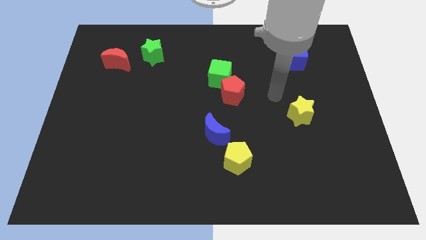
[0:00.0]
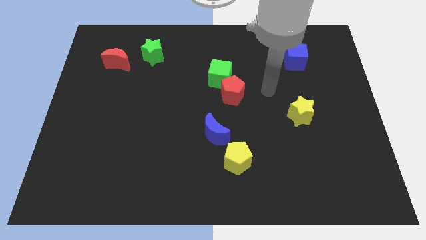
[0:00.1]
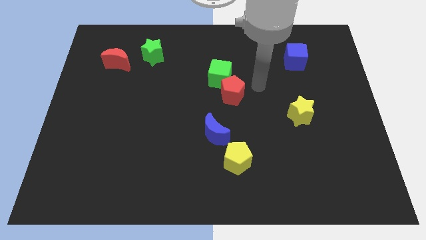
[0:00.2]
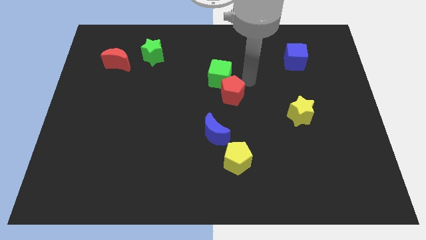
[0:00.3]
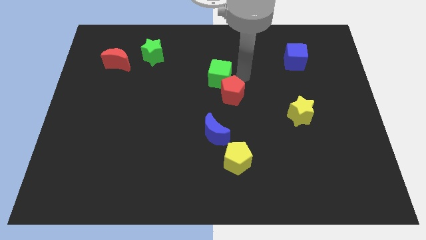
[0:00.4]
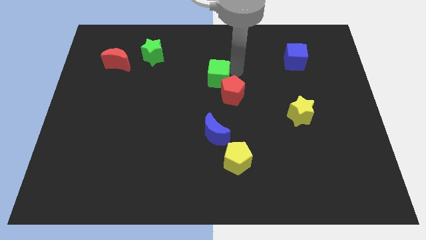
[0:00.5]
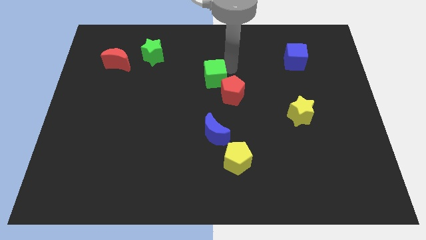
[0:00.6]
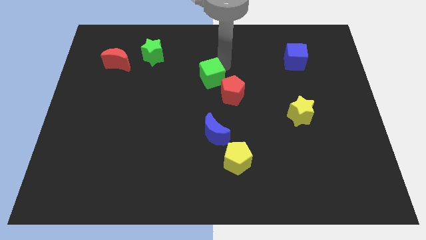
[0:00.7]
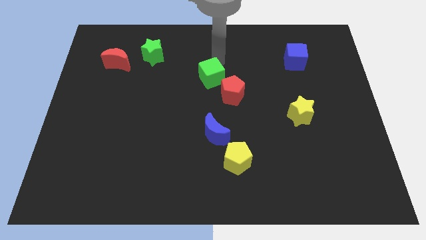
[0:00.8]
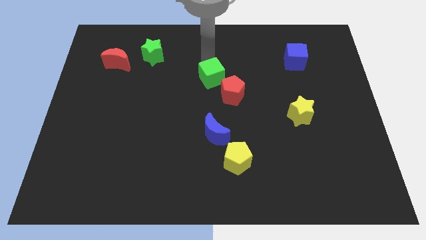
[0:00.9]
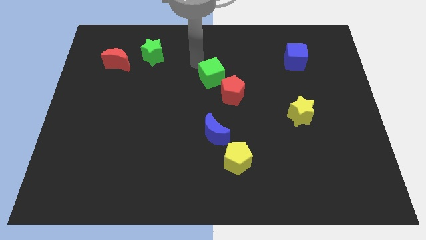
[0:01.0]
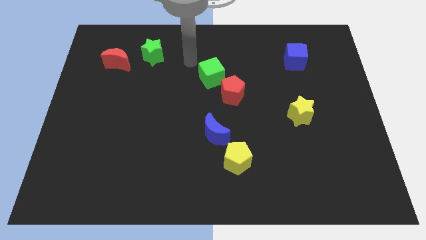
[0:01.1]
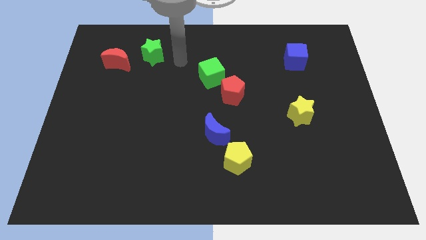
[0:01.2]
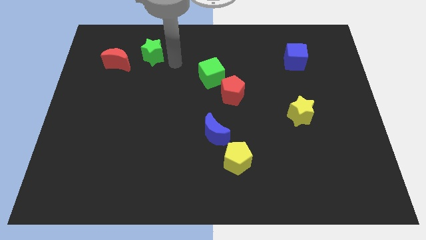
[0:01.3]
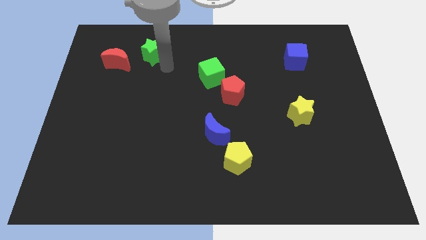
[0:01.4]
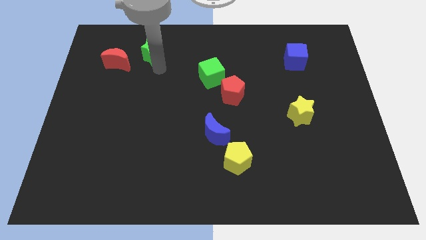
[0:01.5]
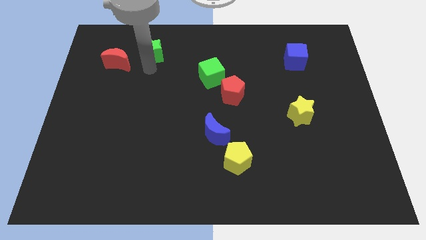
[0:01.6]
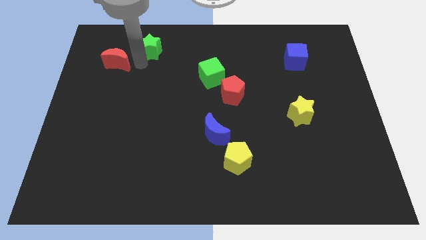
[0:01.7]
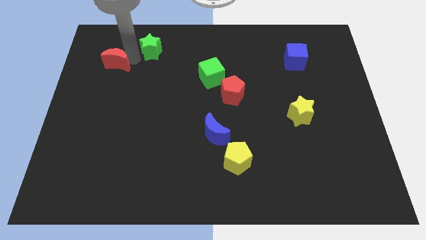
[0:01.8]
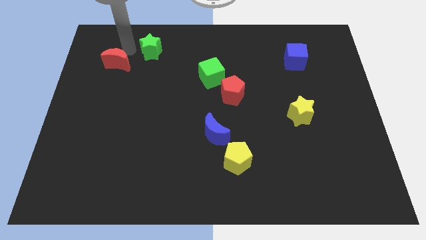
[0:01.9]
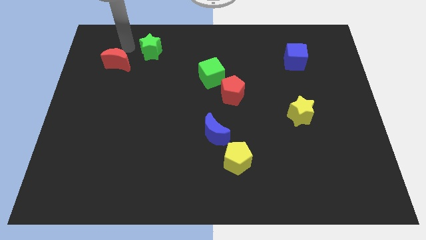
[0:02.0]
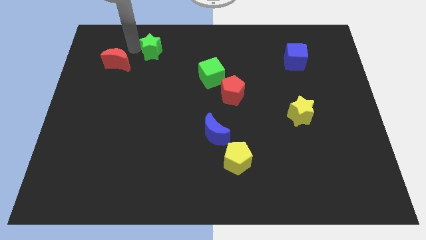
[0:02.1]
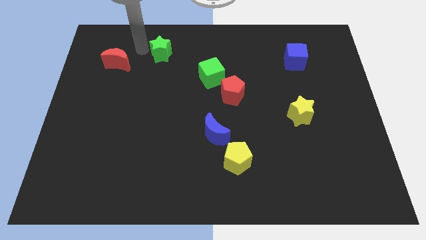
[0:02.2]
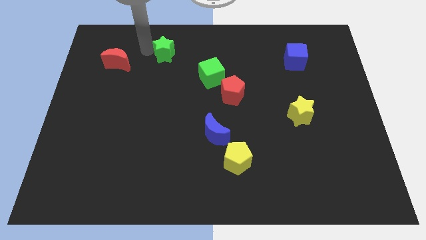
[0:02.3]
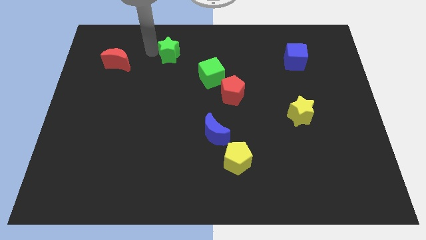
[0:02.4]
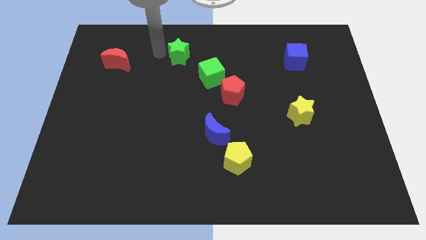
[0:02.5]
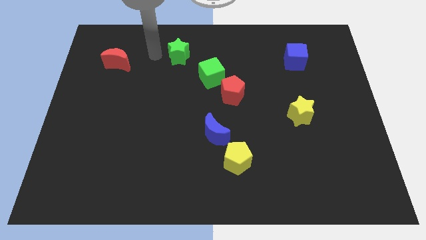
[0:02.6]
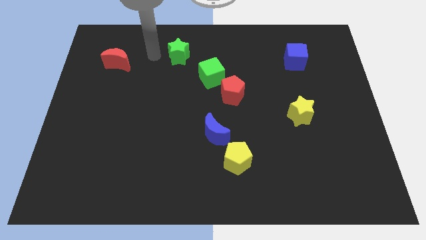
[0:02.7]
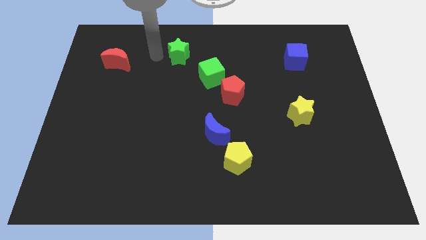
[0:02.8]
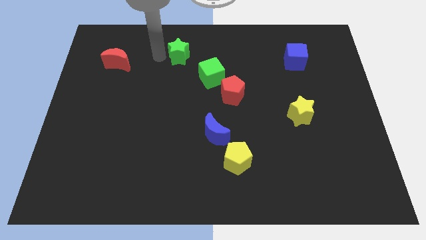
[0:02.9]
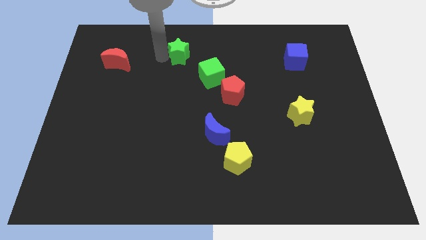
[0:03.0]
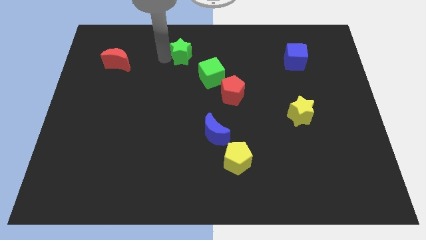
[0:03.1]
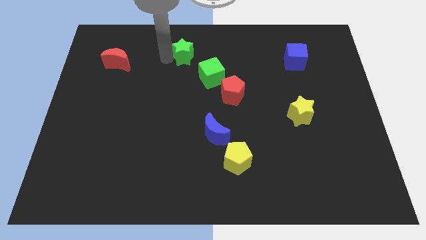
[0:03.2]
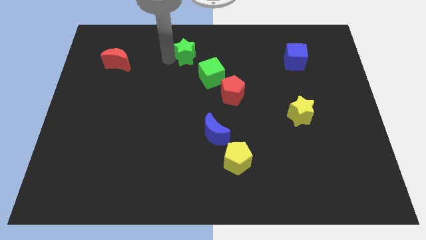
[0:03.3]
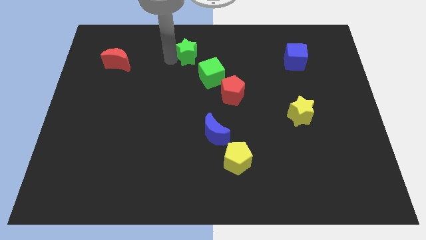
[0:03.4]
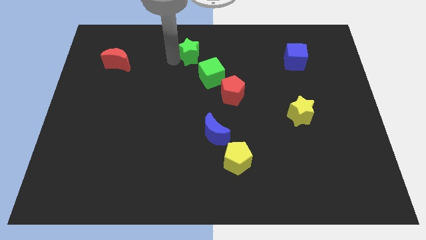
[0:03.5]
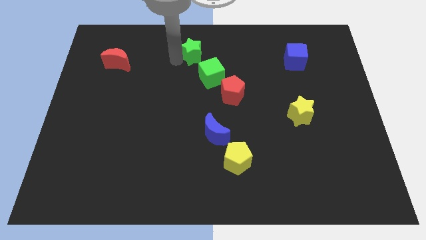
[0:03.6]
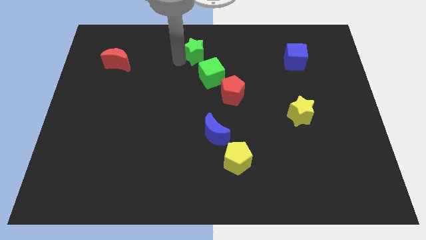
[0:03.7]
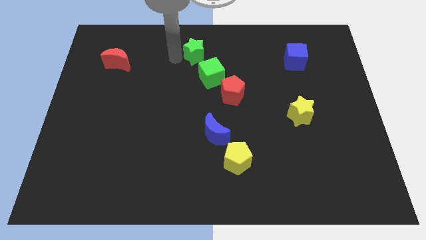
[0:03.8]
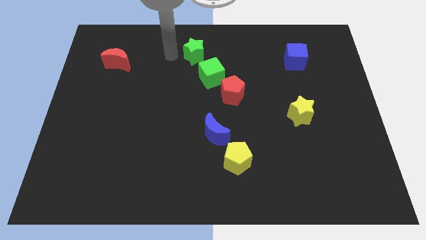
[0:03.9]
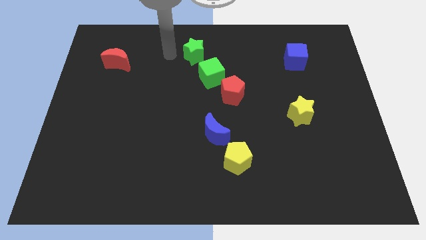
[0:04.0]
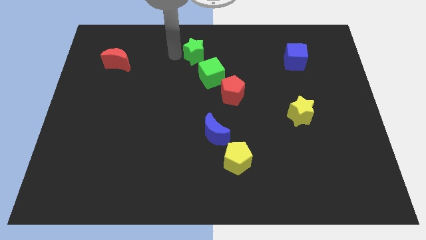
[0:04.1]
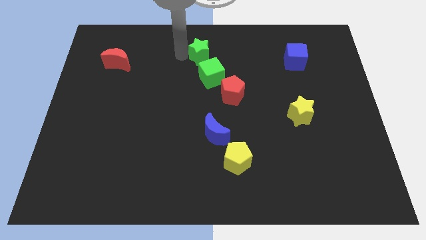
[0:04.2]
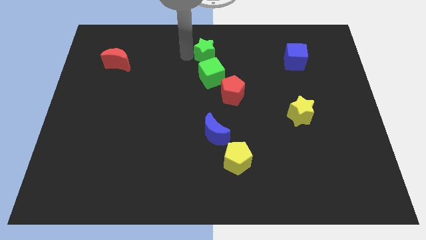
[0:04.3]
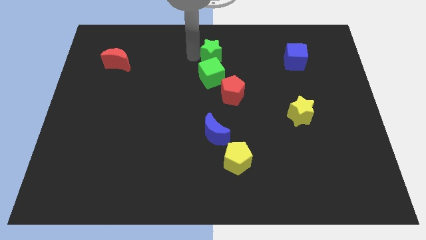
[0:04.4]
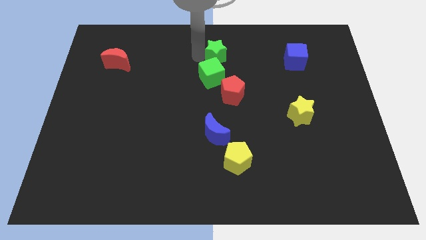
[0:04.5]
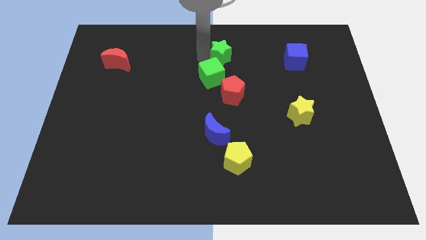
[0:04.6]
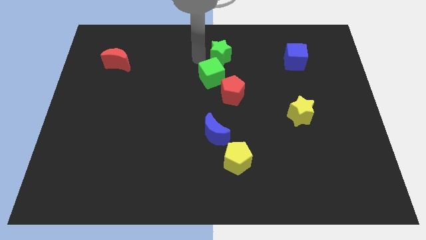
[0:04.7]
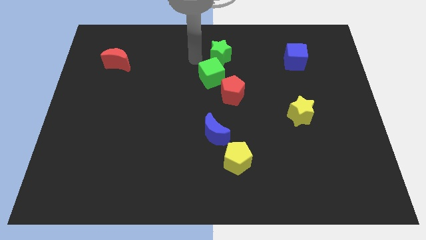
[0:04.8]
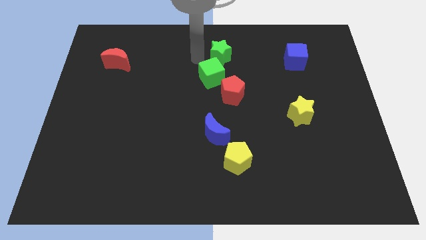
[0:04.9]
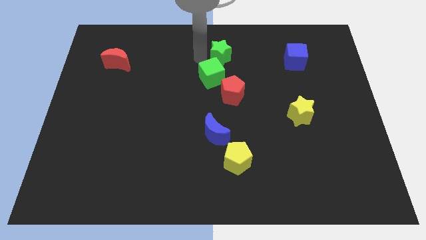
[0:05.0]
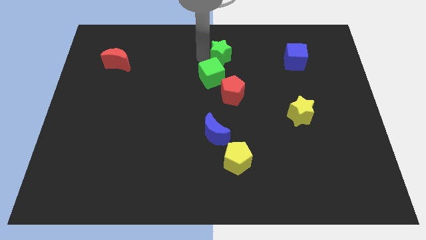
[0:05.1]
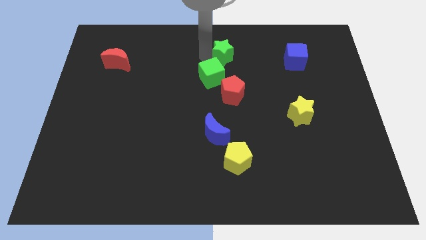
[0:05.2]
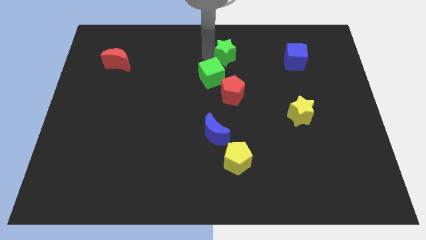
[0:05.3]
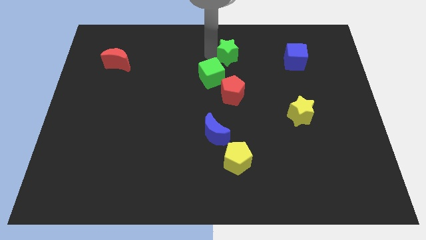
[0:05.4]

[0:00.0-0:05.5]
push the green star right

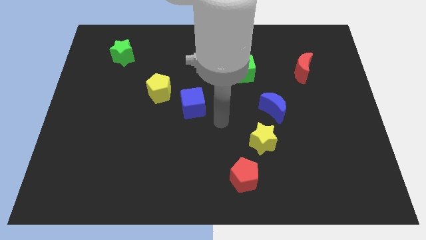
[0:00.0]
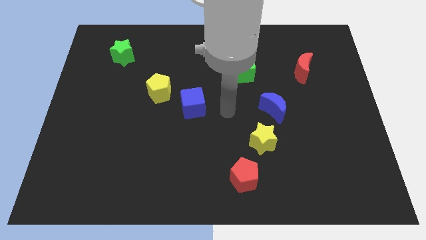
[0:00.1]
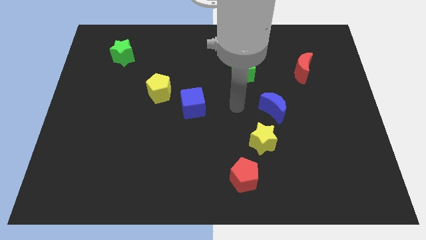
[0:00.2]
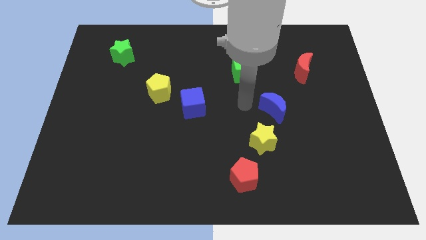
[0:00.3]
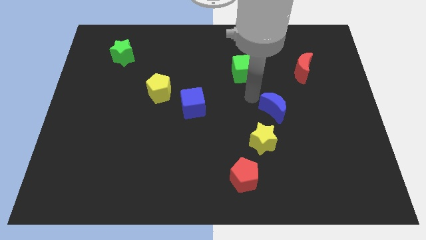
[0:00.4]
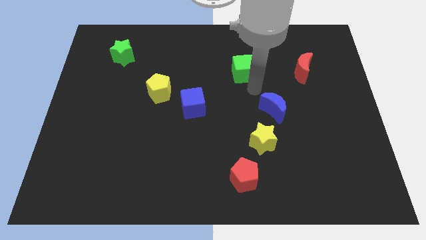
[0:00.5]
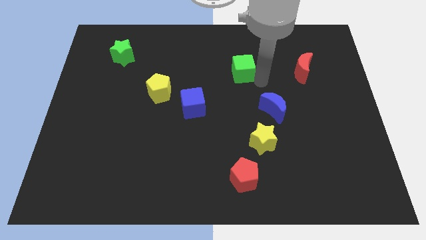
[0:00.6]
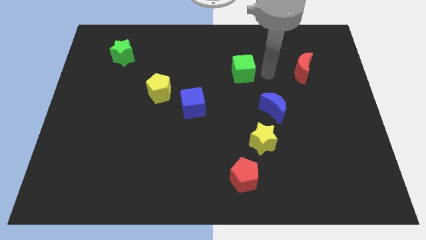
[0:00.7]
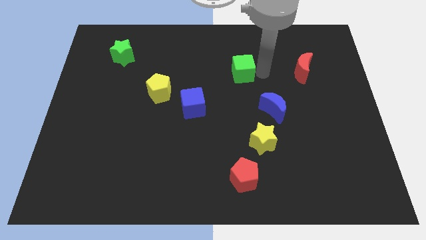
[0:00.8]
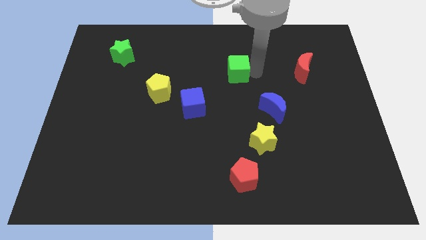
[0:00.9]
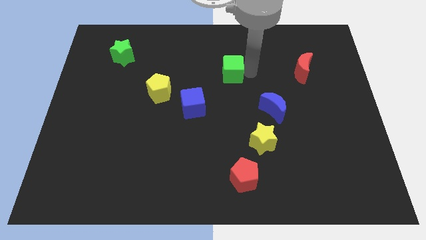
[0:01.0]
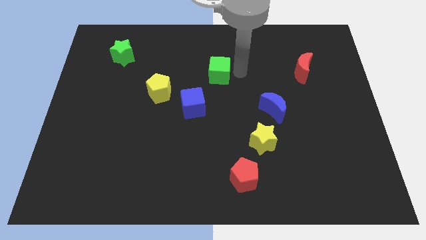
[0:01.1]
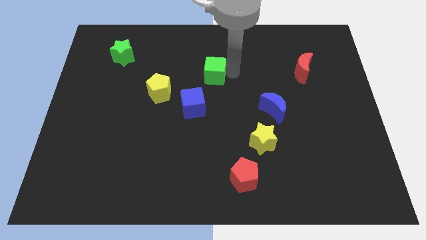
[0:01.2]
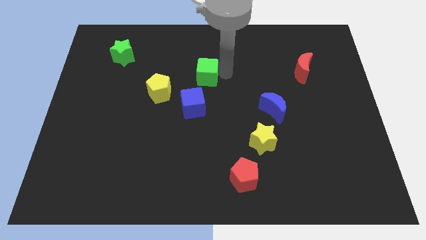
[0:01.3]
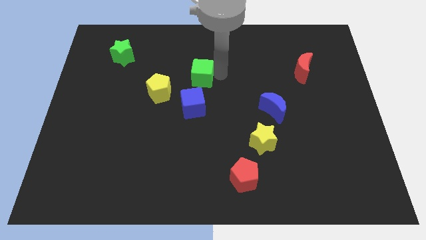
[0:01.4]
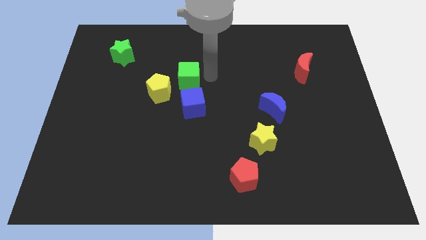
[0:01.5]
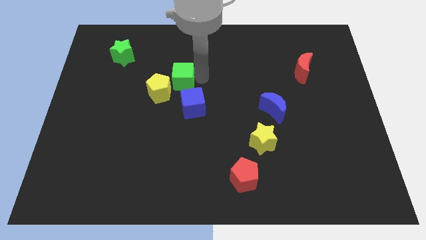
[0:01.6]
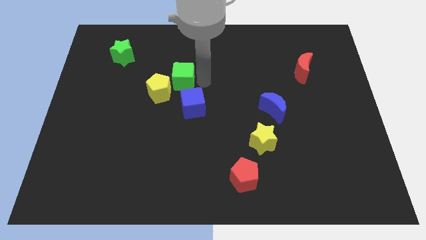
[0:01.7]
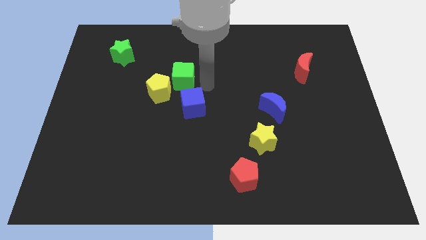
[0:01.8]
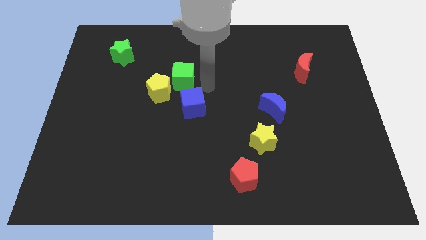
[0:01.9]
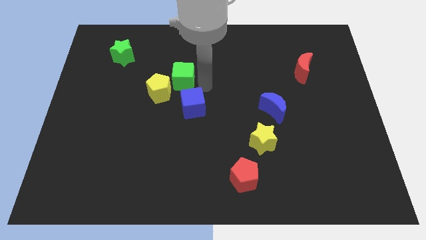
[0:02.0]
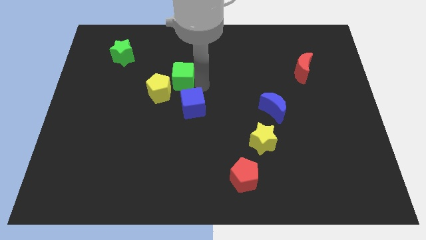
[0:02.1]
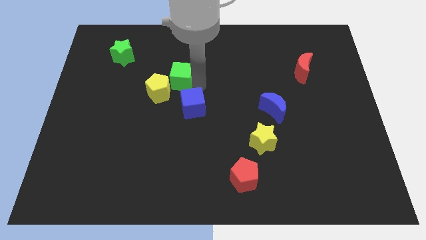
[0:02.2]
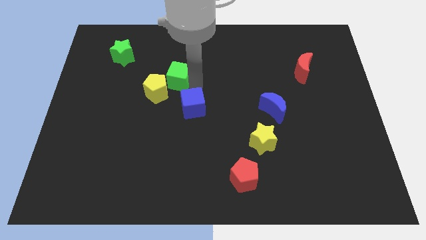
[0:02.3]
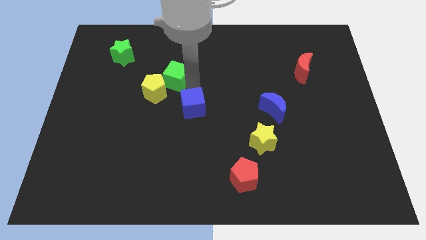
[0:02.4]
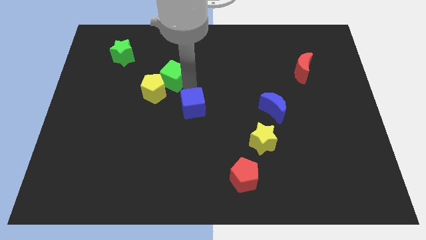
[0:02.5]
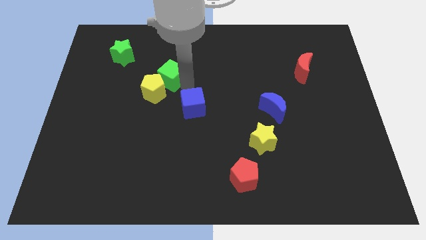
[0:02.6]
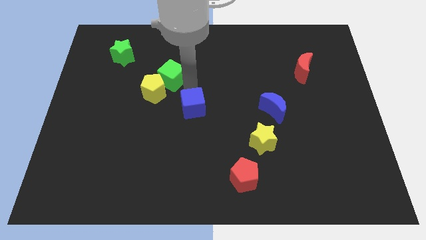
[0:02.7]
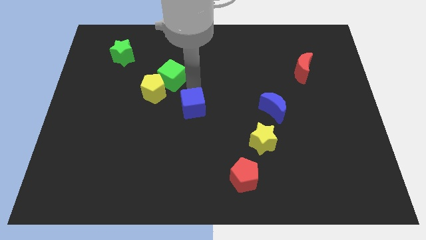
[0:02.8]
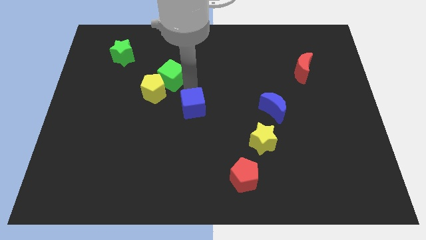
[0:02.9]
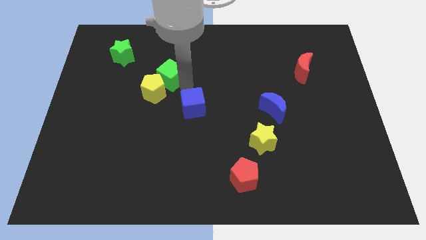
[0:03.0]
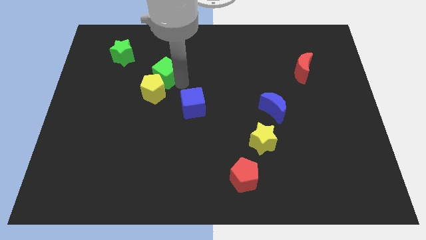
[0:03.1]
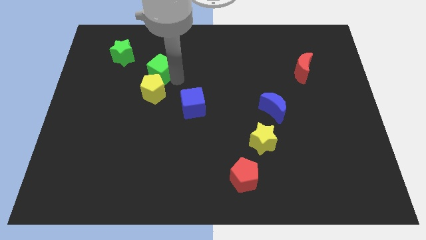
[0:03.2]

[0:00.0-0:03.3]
slide the green cube left
